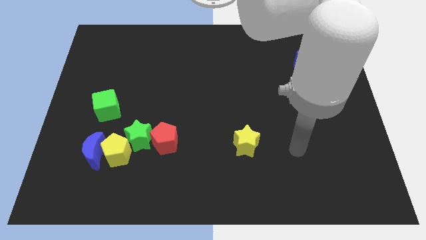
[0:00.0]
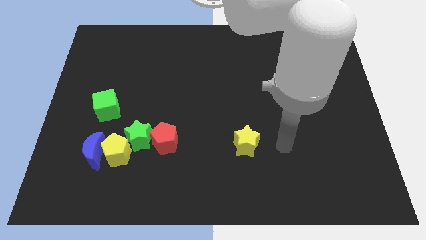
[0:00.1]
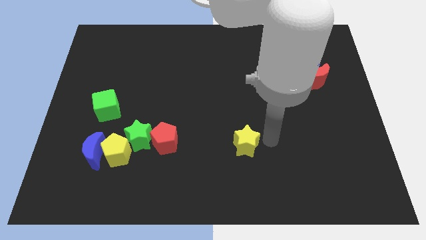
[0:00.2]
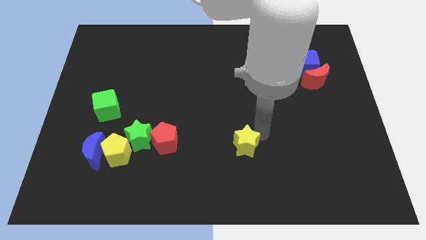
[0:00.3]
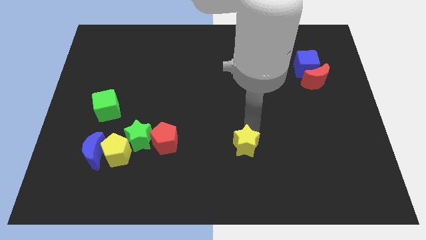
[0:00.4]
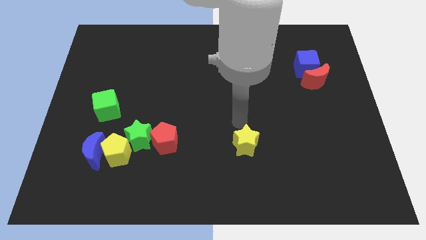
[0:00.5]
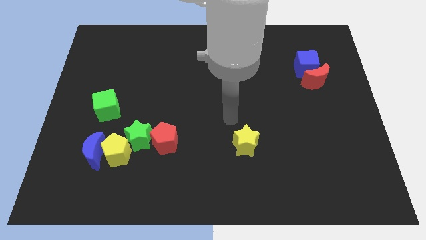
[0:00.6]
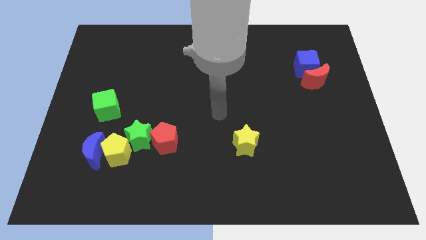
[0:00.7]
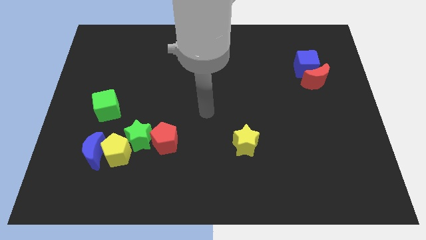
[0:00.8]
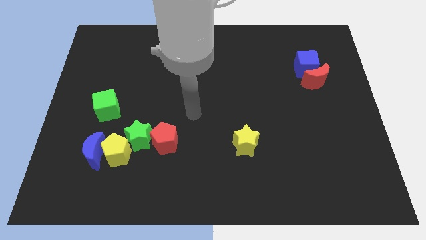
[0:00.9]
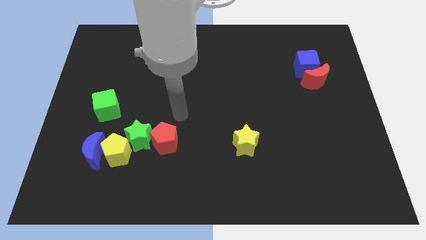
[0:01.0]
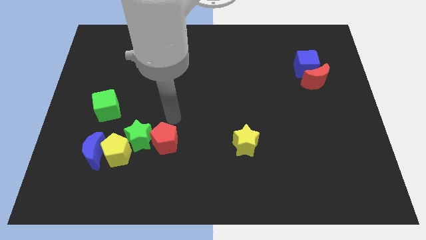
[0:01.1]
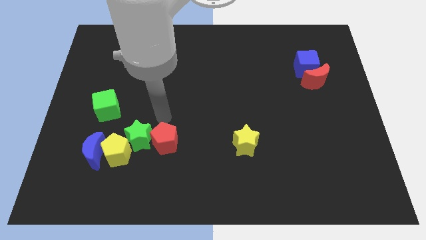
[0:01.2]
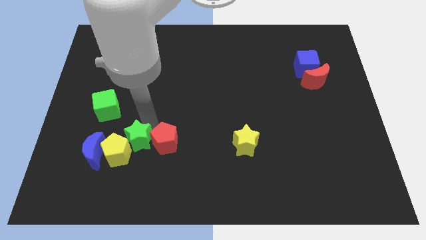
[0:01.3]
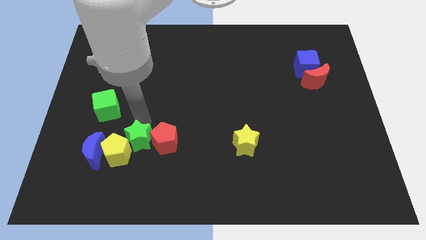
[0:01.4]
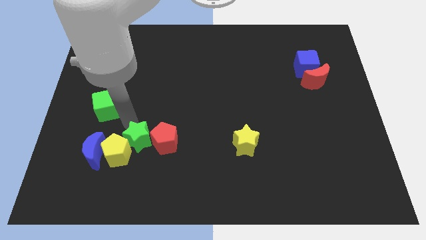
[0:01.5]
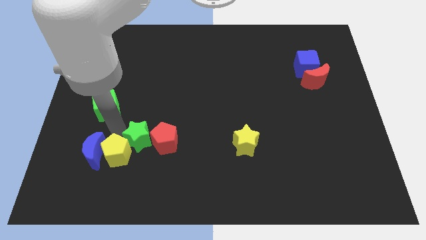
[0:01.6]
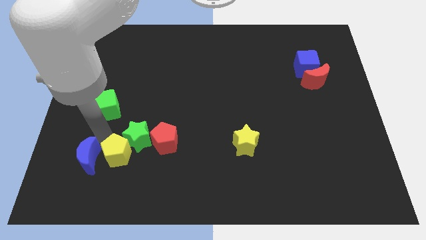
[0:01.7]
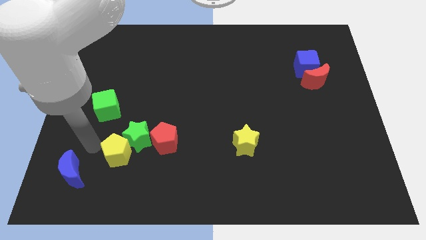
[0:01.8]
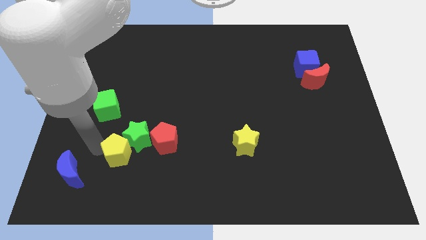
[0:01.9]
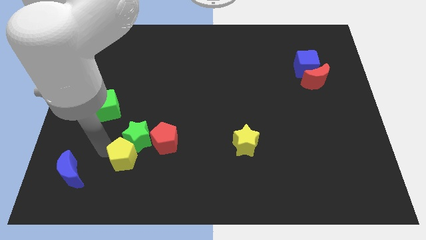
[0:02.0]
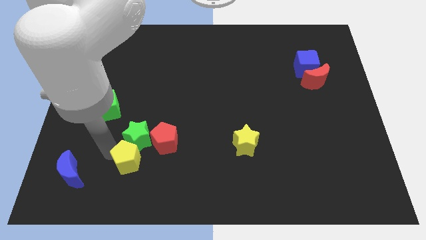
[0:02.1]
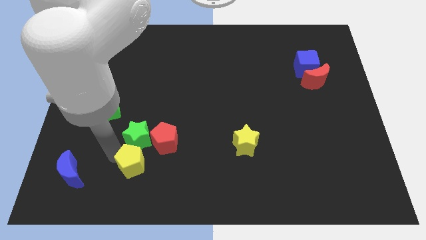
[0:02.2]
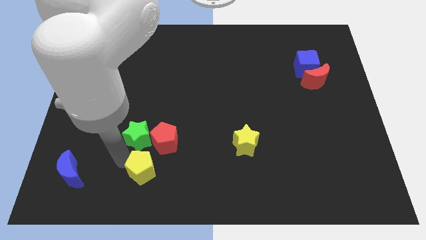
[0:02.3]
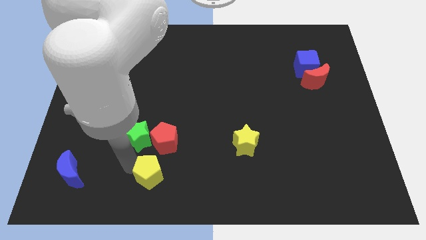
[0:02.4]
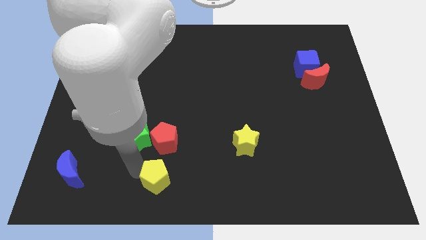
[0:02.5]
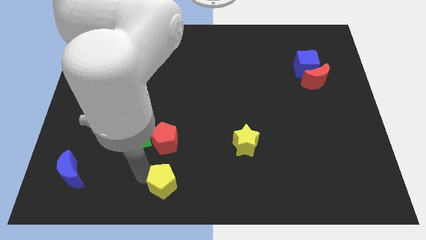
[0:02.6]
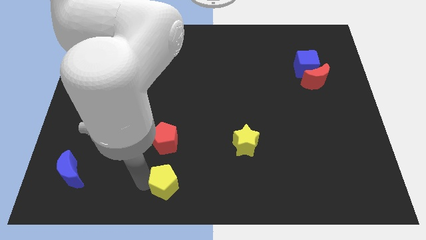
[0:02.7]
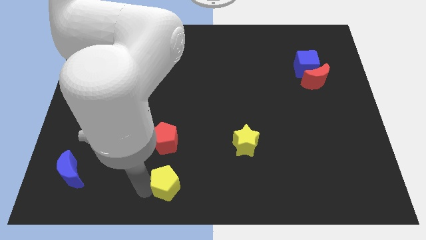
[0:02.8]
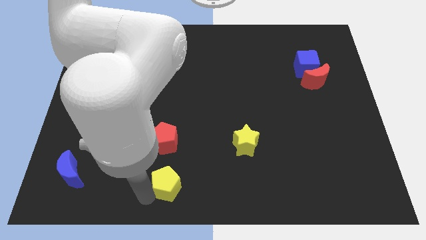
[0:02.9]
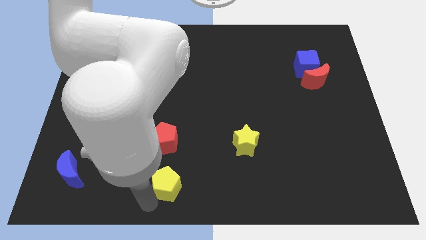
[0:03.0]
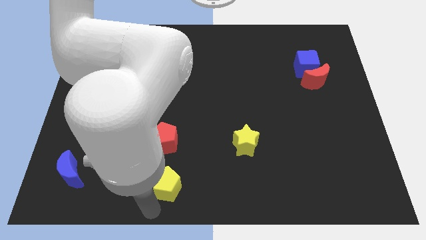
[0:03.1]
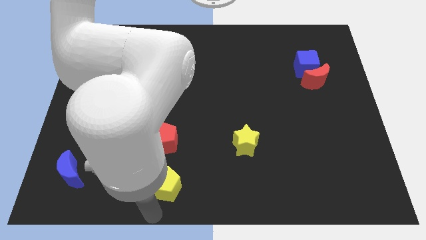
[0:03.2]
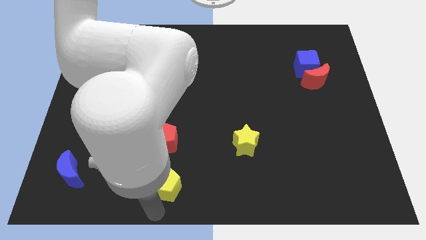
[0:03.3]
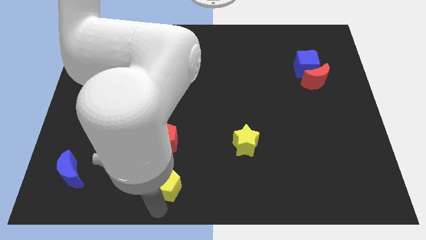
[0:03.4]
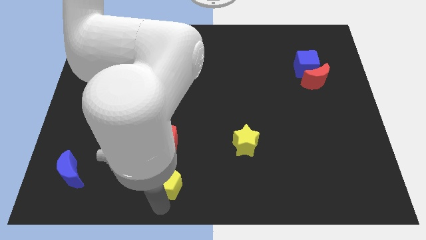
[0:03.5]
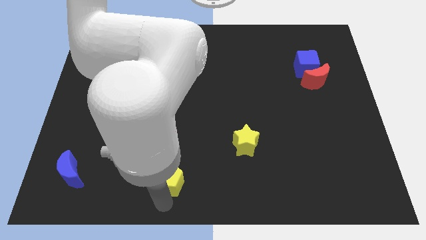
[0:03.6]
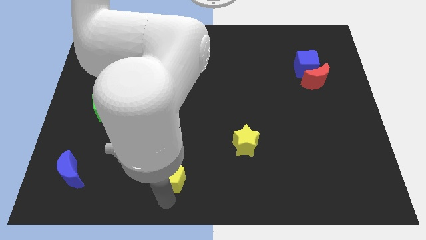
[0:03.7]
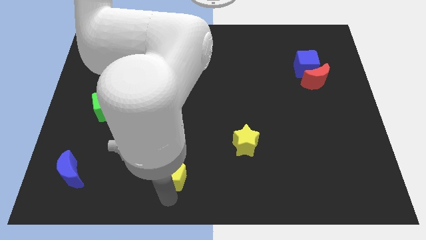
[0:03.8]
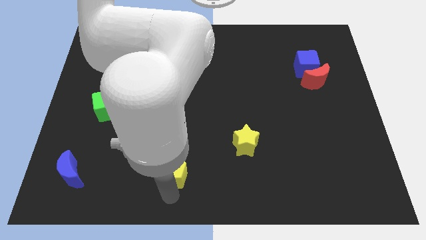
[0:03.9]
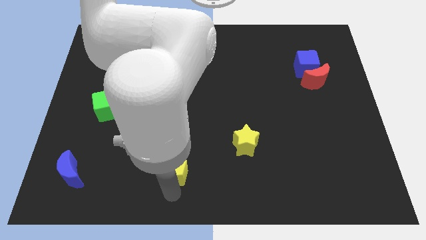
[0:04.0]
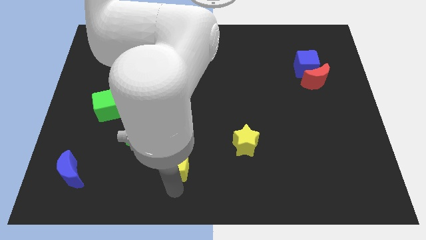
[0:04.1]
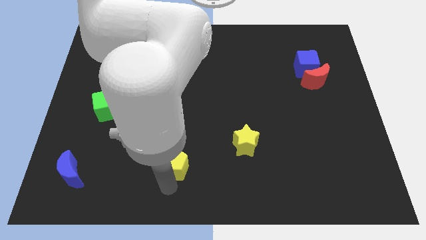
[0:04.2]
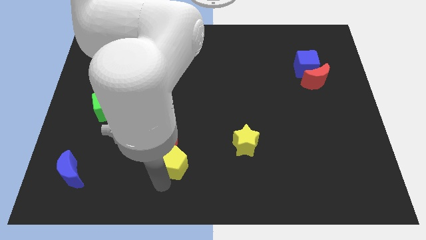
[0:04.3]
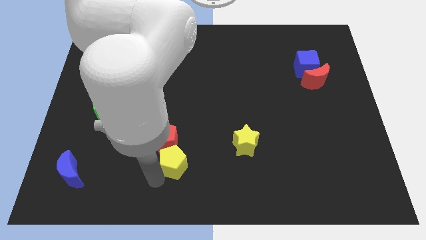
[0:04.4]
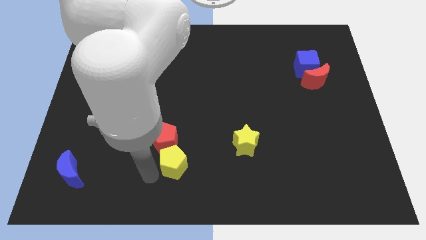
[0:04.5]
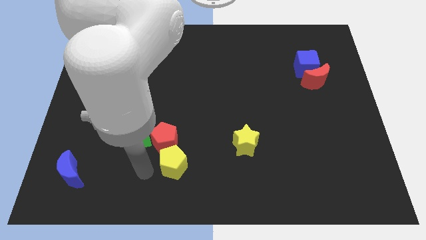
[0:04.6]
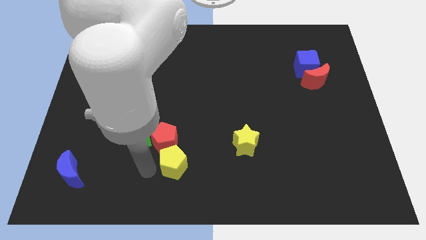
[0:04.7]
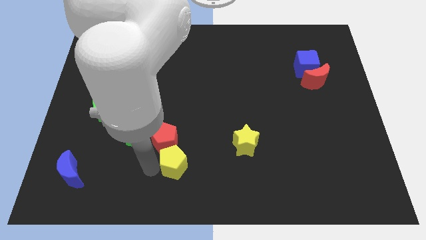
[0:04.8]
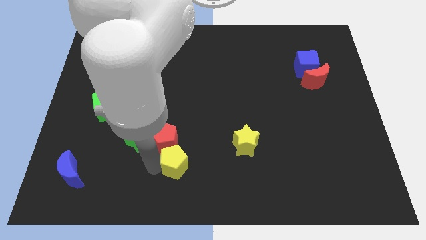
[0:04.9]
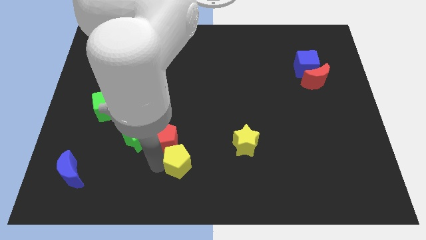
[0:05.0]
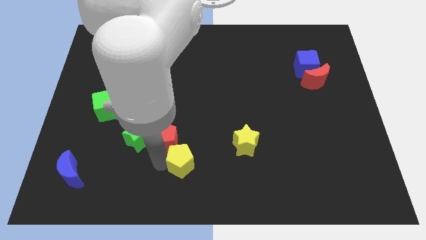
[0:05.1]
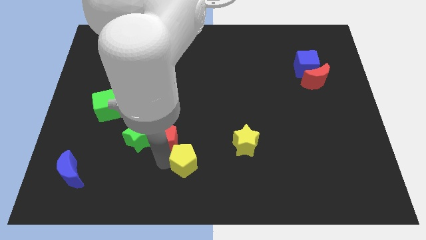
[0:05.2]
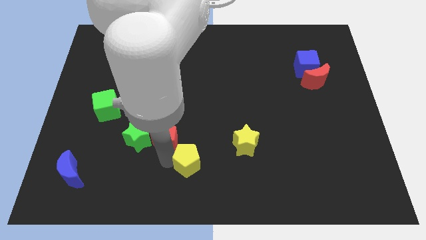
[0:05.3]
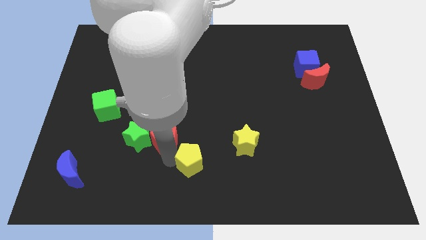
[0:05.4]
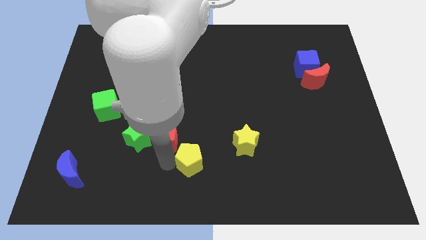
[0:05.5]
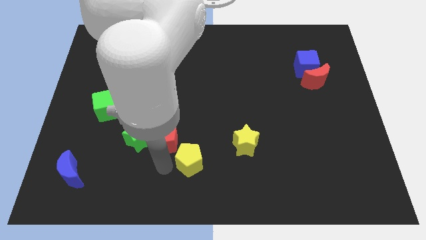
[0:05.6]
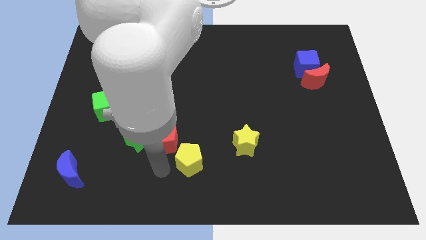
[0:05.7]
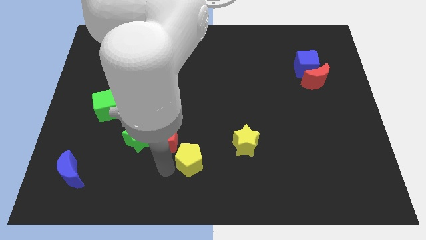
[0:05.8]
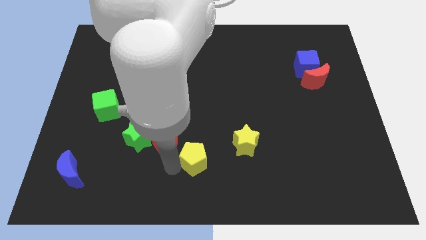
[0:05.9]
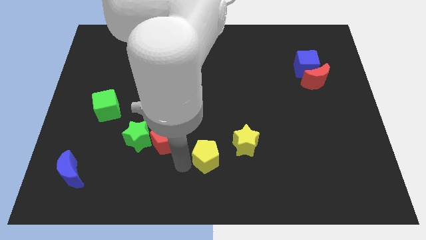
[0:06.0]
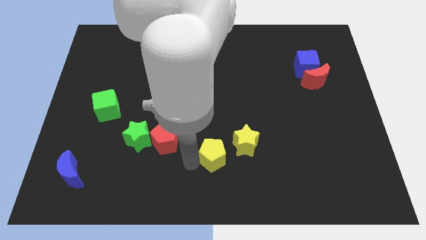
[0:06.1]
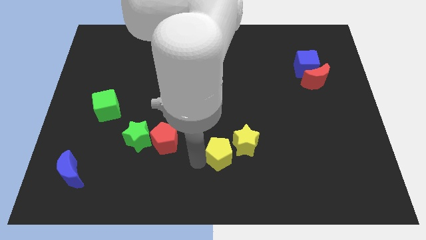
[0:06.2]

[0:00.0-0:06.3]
move the yellow pentagon towards the yellow star

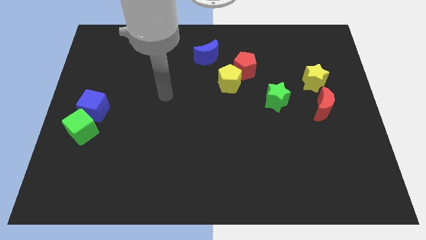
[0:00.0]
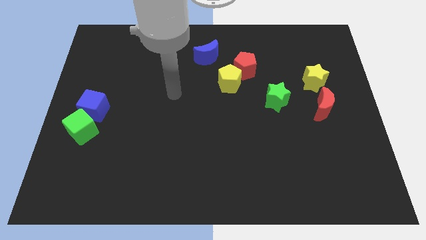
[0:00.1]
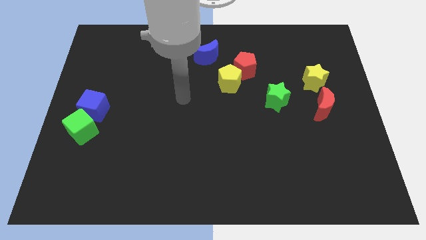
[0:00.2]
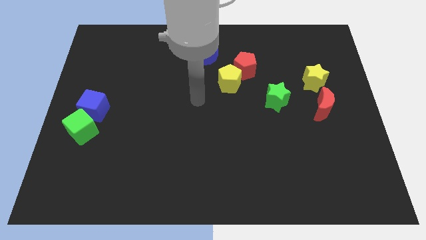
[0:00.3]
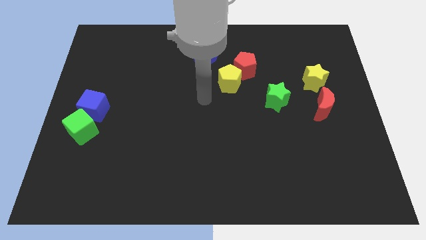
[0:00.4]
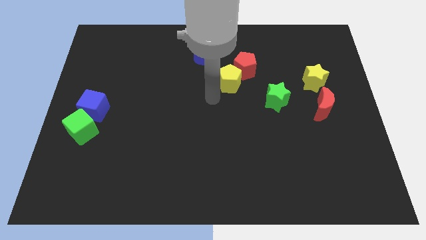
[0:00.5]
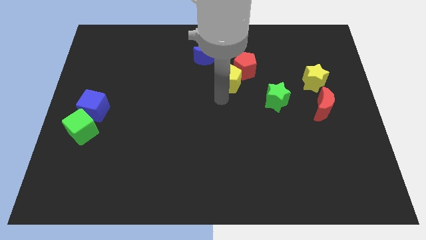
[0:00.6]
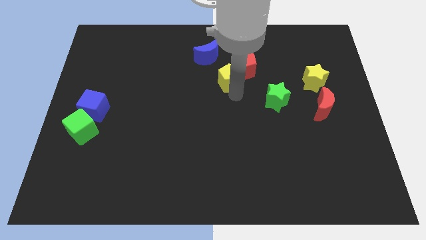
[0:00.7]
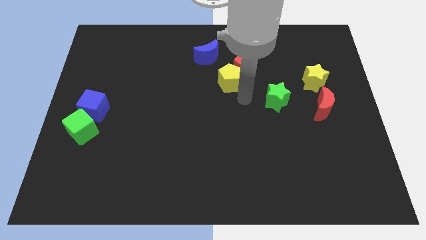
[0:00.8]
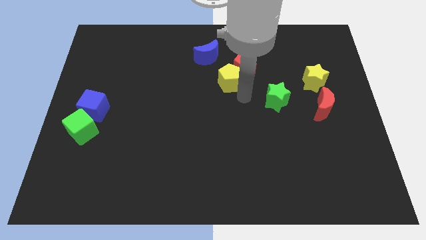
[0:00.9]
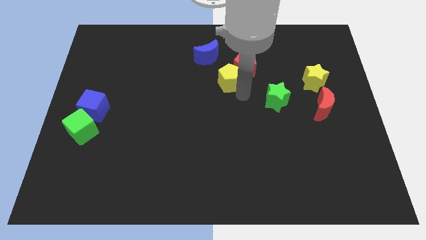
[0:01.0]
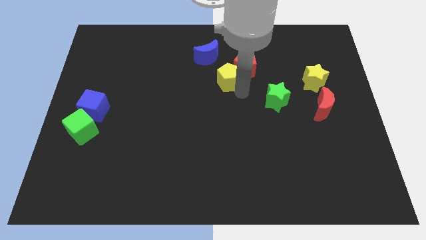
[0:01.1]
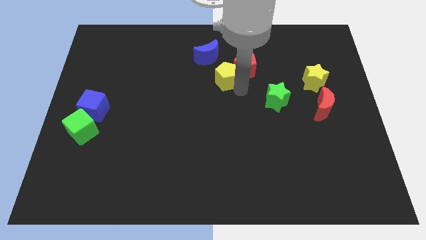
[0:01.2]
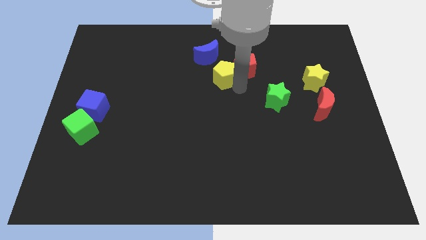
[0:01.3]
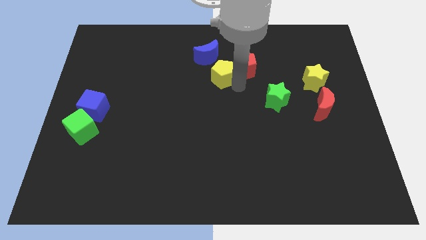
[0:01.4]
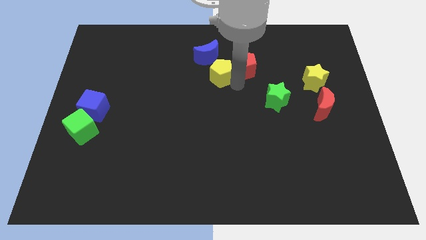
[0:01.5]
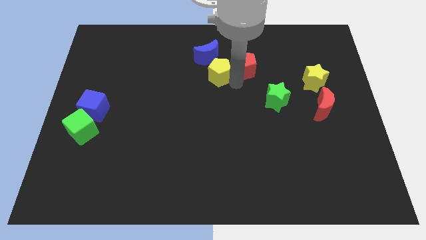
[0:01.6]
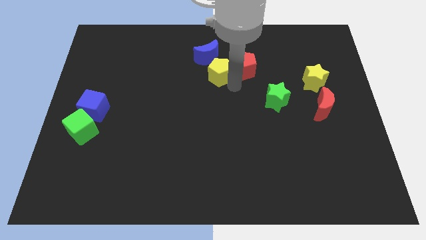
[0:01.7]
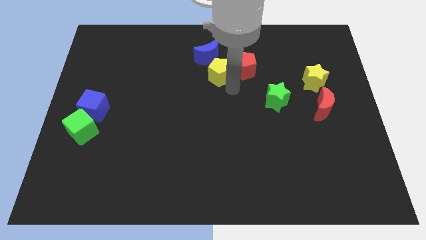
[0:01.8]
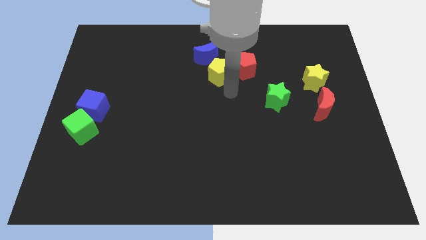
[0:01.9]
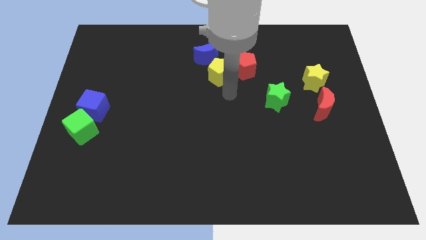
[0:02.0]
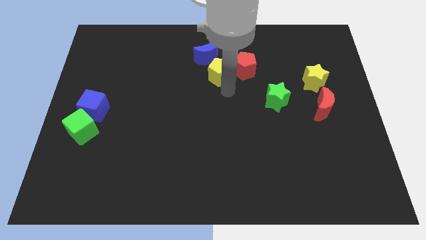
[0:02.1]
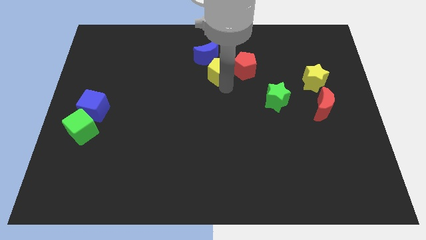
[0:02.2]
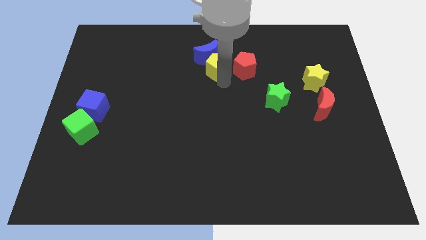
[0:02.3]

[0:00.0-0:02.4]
push the yellow pentagon towards the blue moon
